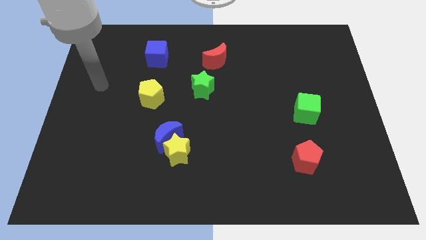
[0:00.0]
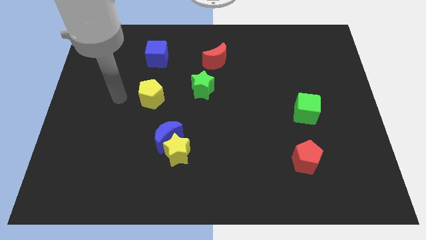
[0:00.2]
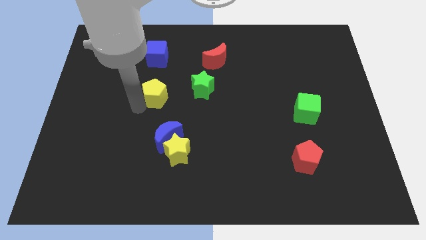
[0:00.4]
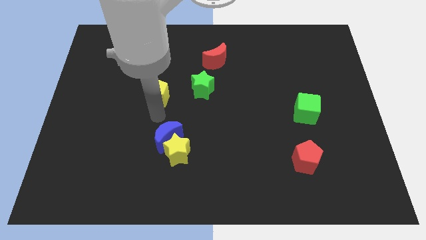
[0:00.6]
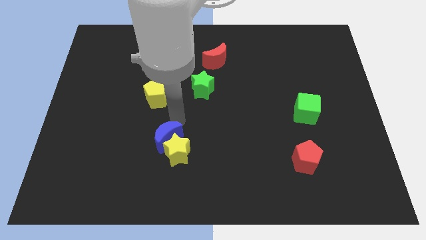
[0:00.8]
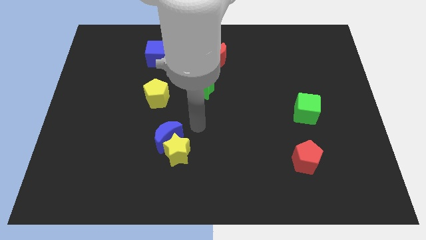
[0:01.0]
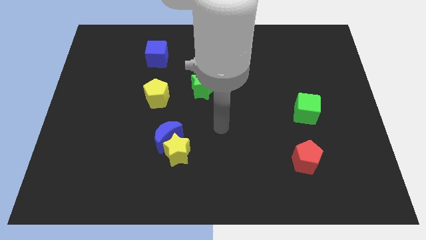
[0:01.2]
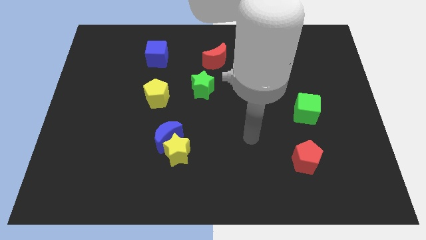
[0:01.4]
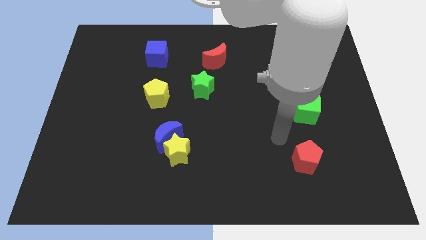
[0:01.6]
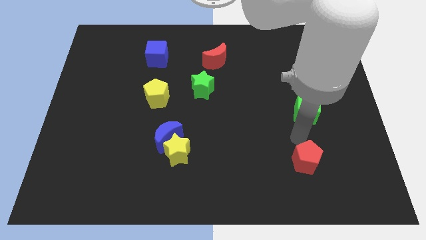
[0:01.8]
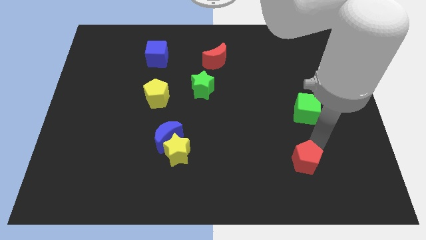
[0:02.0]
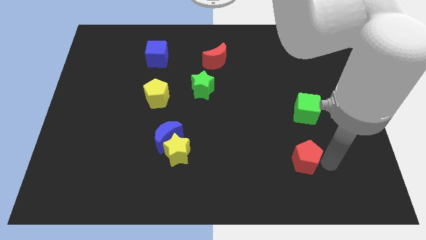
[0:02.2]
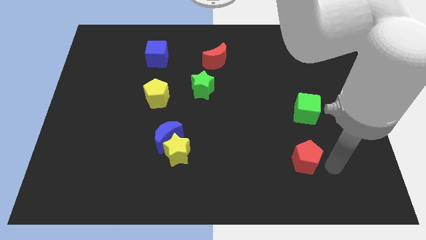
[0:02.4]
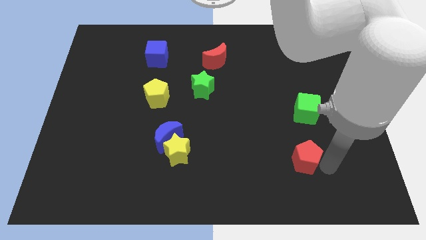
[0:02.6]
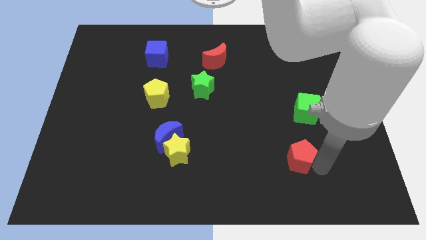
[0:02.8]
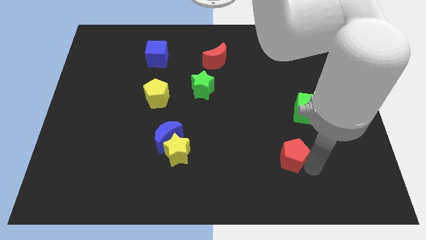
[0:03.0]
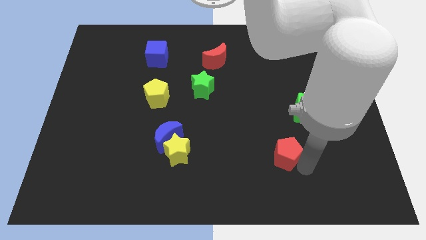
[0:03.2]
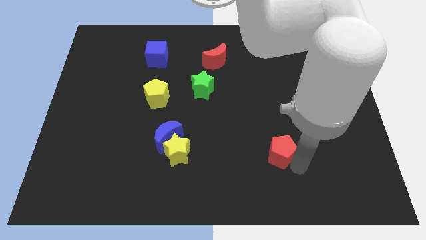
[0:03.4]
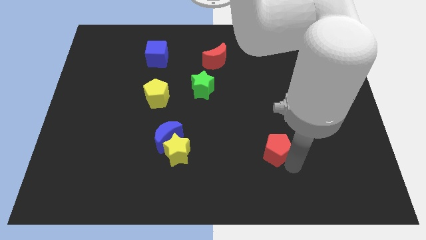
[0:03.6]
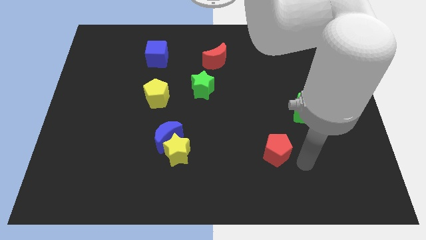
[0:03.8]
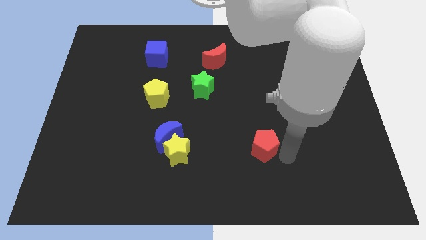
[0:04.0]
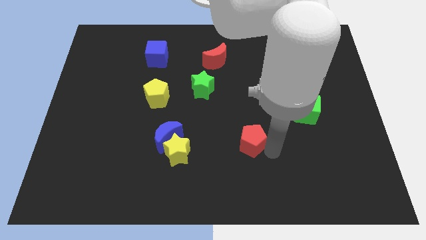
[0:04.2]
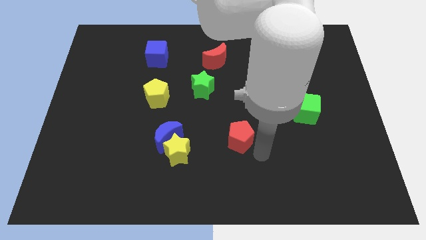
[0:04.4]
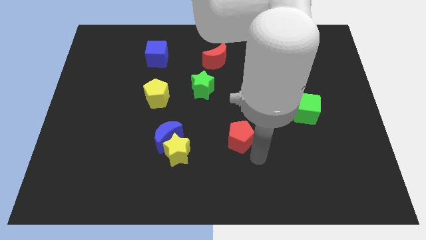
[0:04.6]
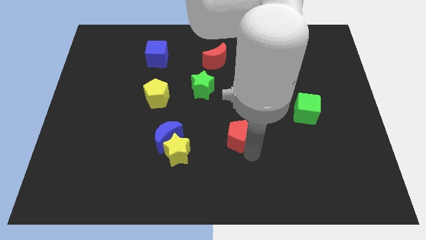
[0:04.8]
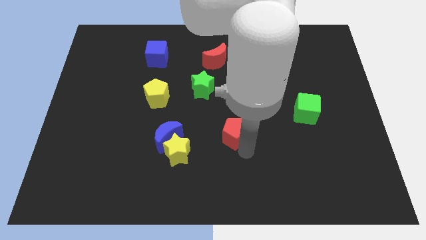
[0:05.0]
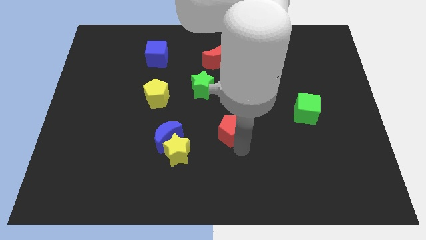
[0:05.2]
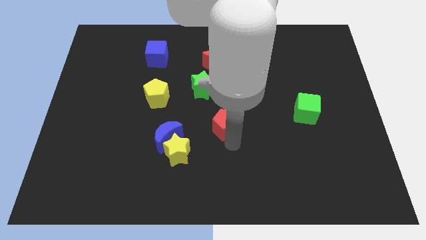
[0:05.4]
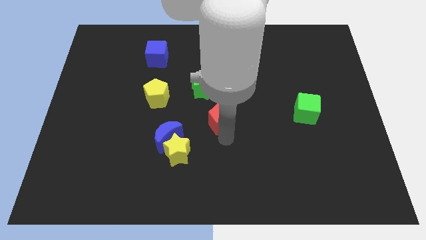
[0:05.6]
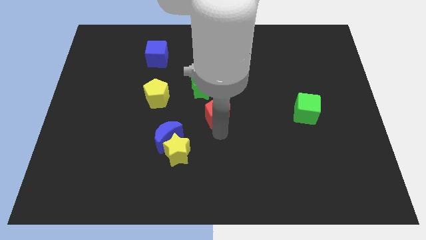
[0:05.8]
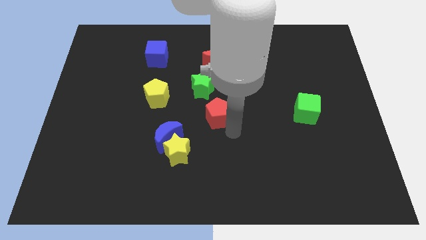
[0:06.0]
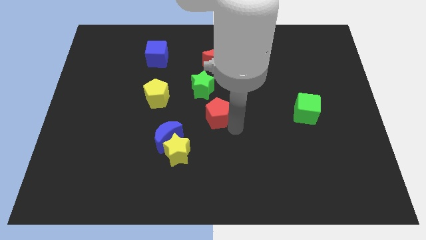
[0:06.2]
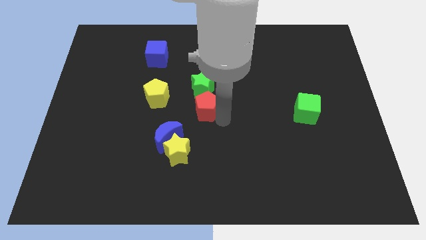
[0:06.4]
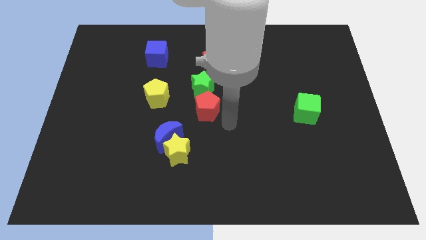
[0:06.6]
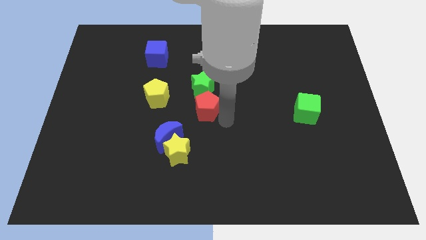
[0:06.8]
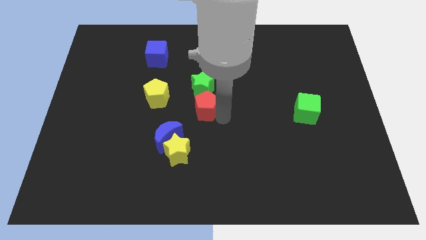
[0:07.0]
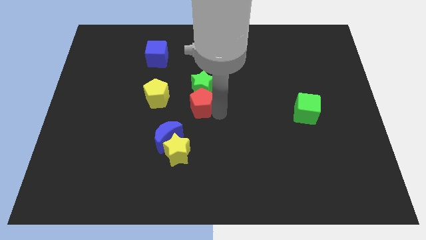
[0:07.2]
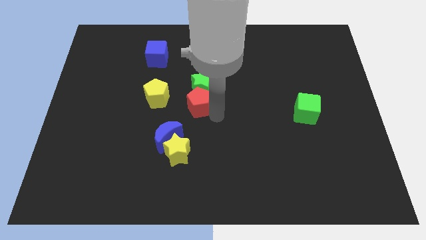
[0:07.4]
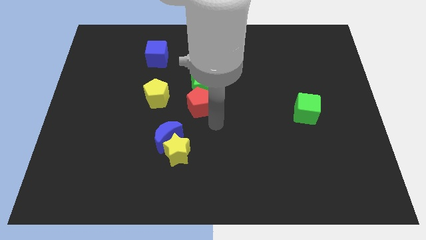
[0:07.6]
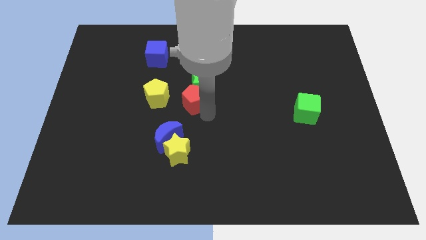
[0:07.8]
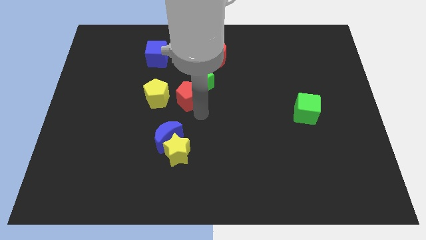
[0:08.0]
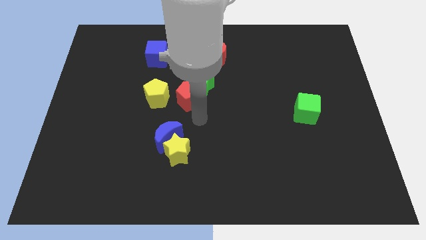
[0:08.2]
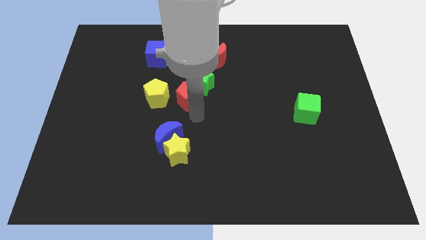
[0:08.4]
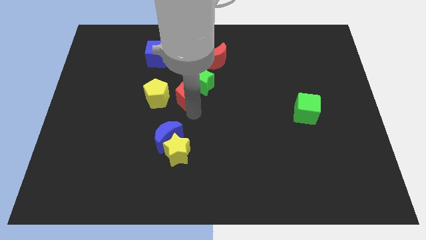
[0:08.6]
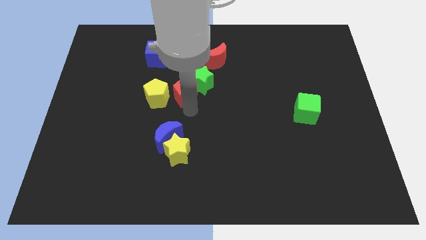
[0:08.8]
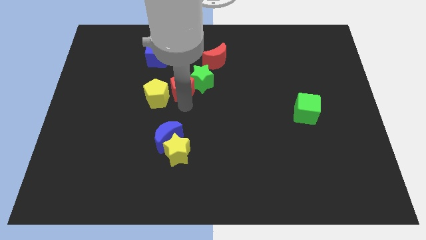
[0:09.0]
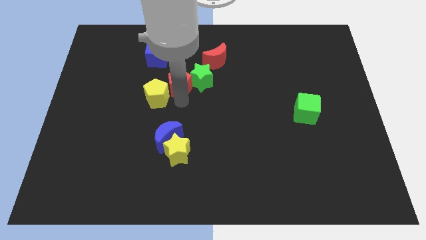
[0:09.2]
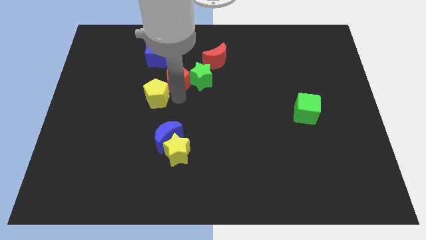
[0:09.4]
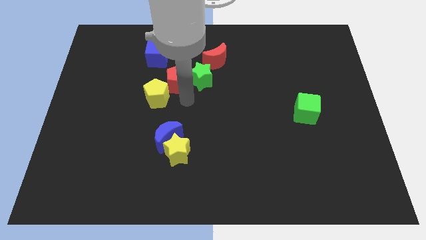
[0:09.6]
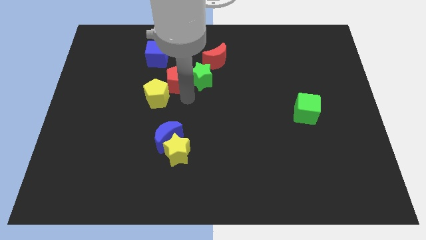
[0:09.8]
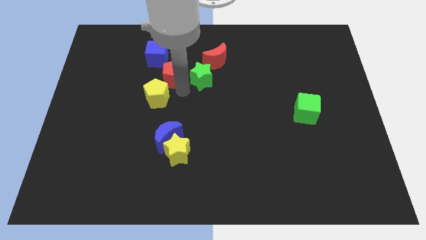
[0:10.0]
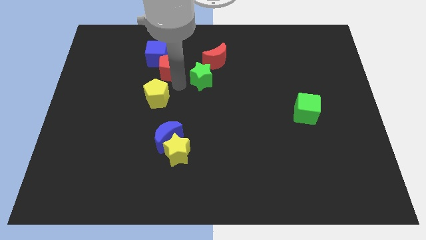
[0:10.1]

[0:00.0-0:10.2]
slide the red pentagon next to the blue cube

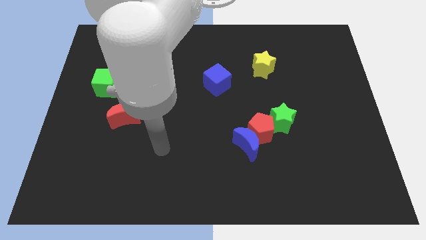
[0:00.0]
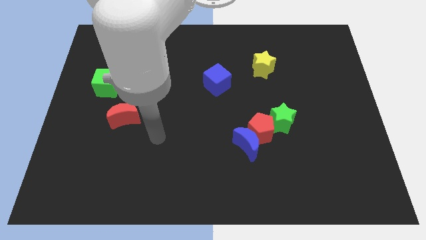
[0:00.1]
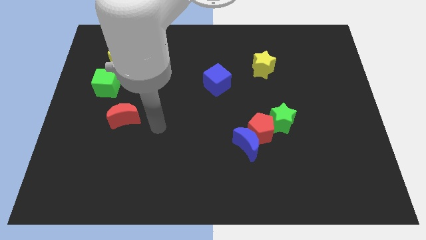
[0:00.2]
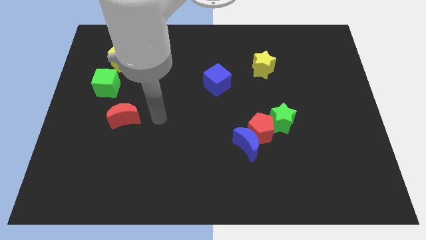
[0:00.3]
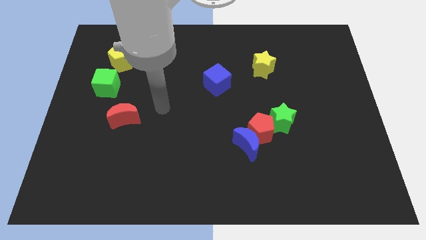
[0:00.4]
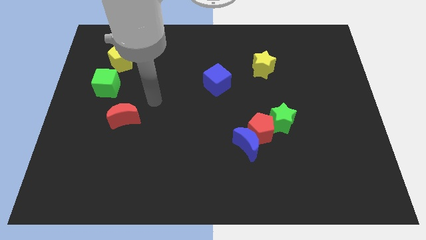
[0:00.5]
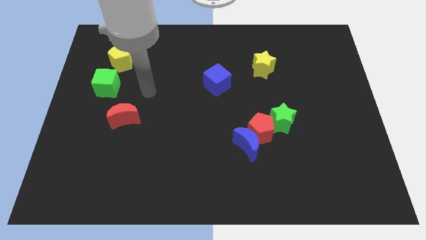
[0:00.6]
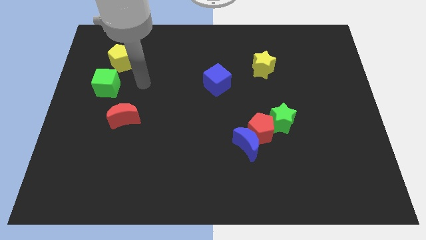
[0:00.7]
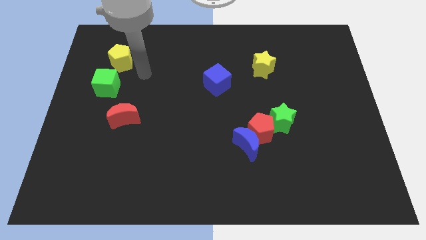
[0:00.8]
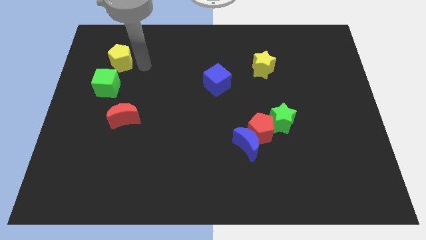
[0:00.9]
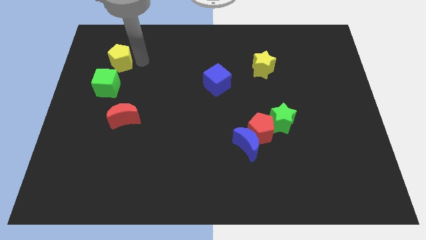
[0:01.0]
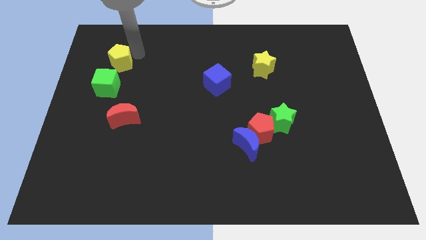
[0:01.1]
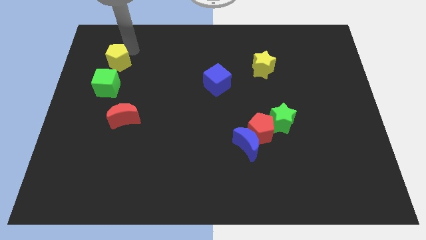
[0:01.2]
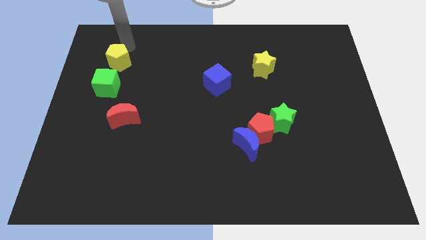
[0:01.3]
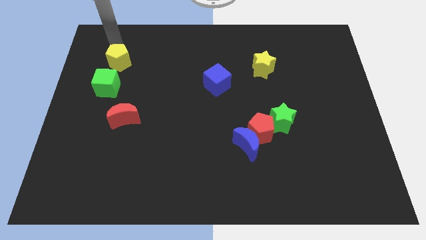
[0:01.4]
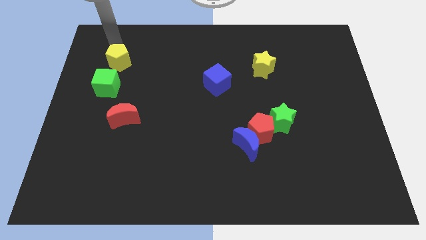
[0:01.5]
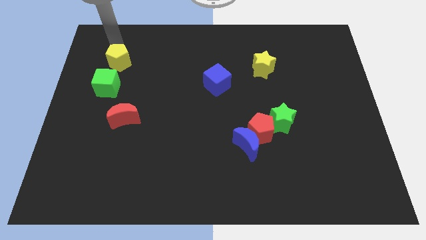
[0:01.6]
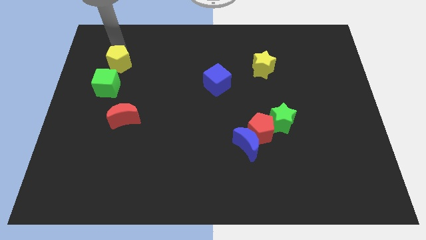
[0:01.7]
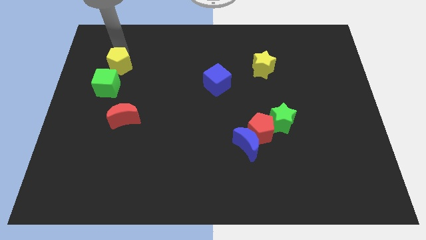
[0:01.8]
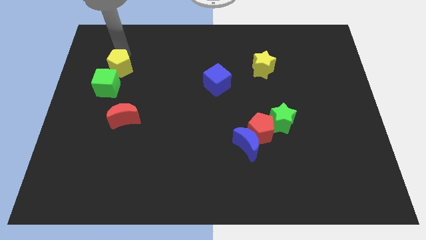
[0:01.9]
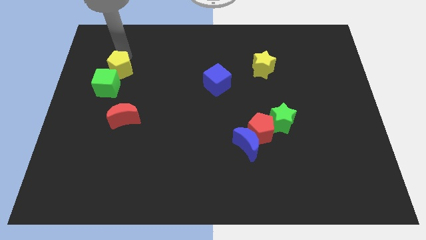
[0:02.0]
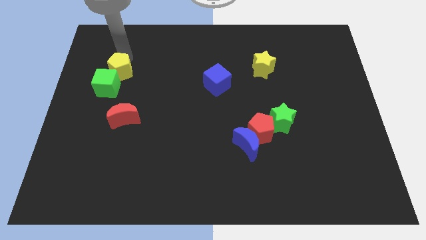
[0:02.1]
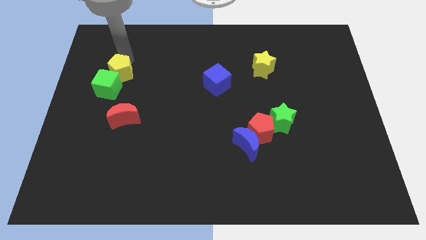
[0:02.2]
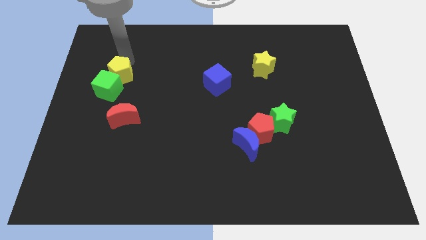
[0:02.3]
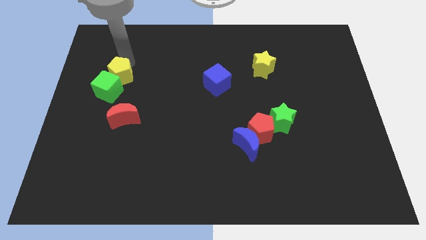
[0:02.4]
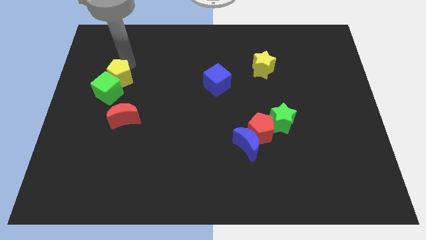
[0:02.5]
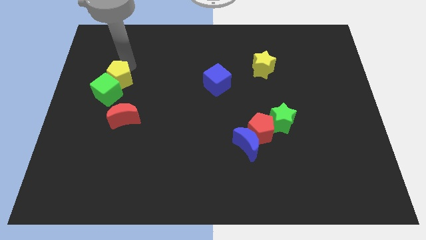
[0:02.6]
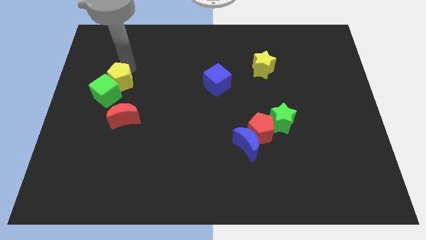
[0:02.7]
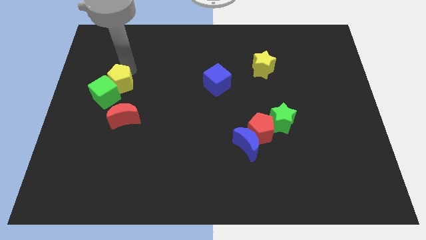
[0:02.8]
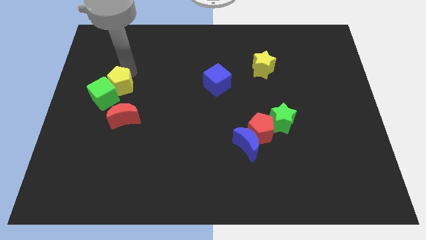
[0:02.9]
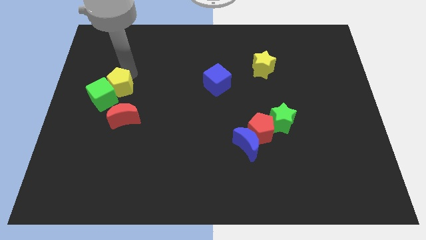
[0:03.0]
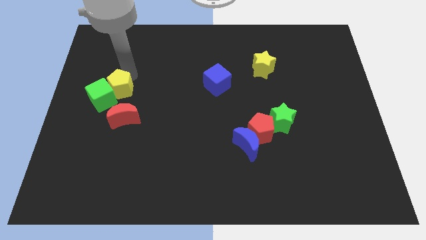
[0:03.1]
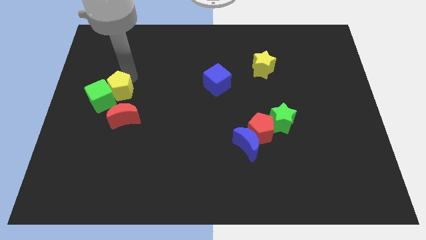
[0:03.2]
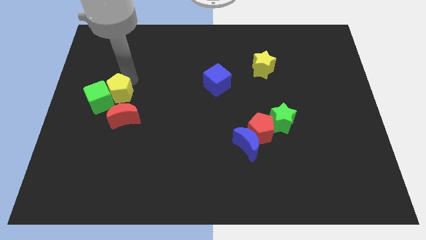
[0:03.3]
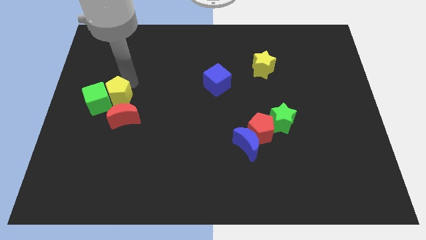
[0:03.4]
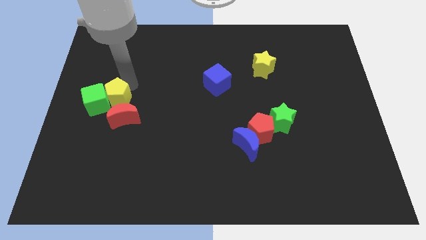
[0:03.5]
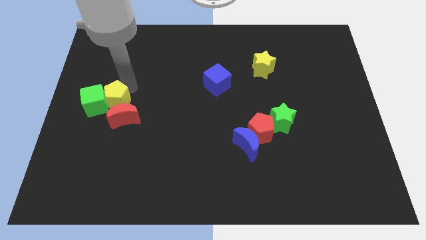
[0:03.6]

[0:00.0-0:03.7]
put the yellow pentagon to the red moon
